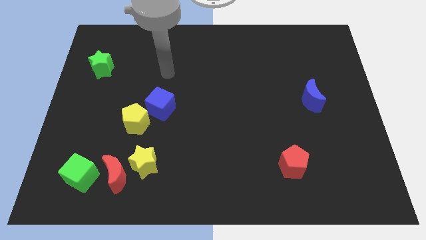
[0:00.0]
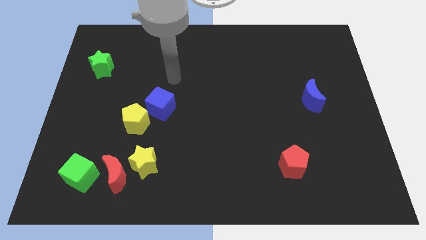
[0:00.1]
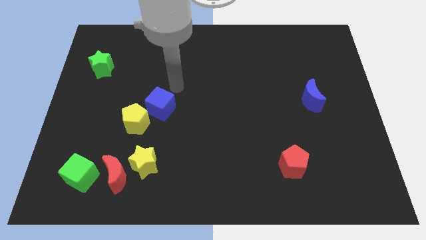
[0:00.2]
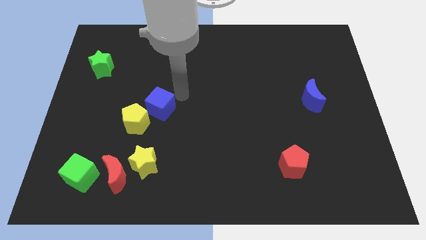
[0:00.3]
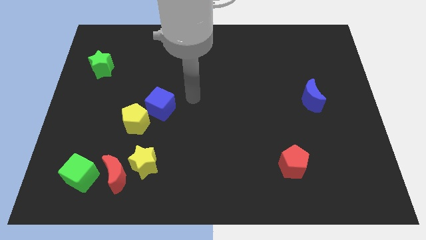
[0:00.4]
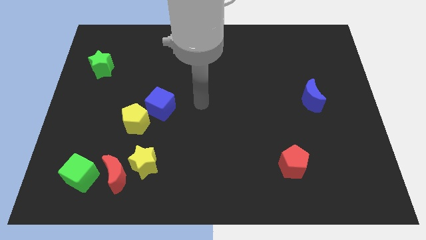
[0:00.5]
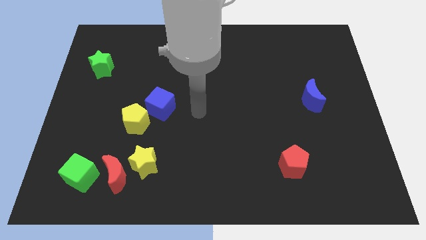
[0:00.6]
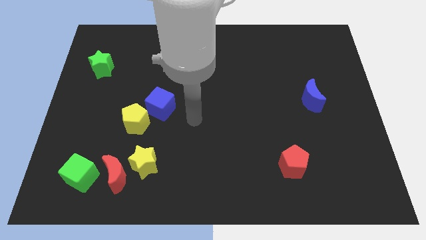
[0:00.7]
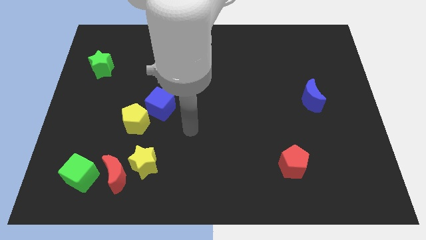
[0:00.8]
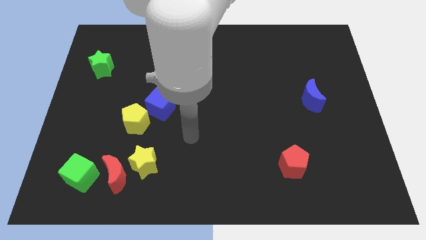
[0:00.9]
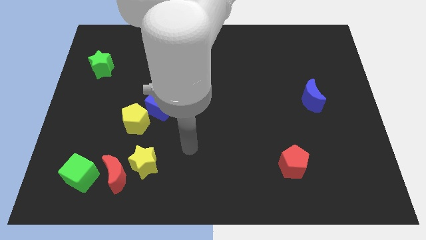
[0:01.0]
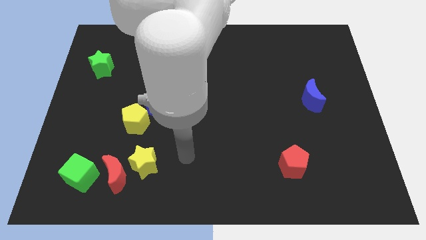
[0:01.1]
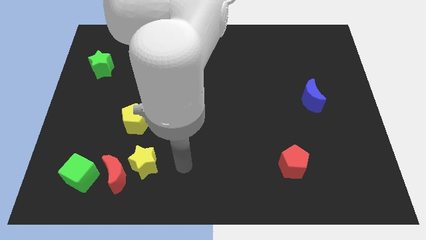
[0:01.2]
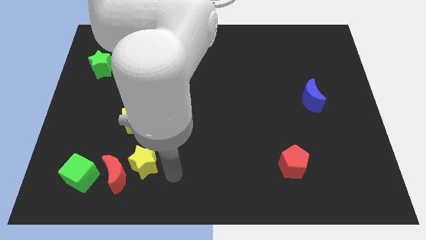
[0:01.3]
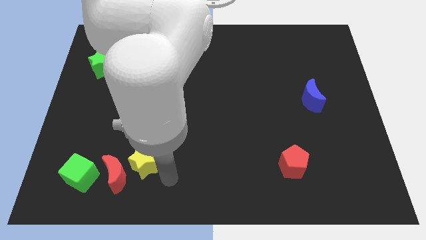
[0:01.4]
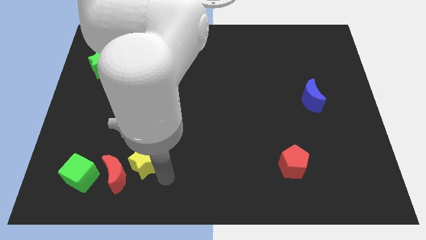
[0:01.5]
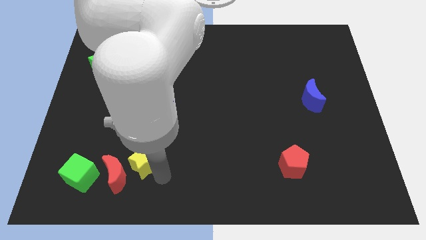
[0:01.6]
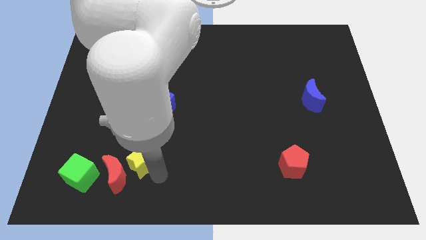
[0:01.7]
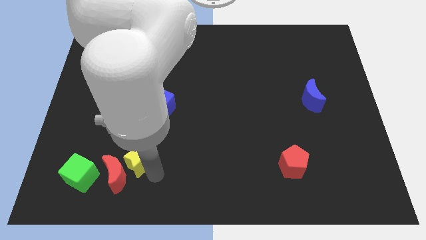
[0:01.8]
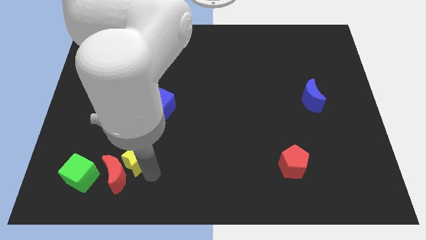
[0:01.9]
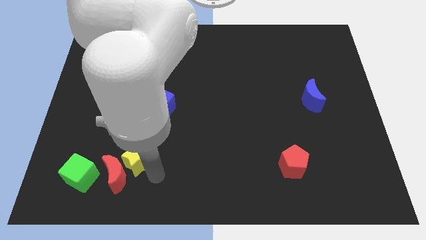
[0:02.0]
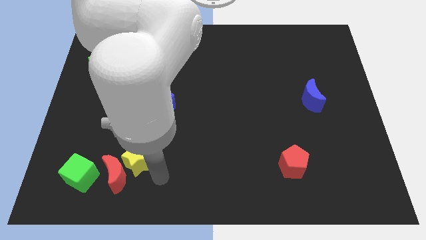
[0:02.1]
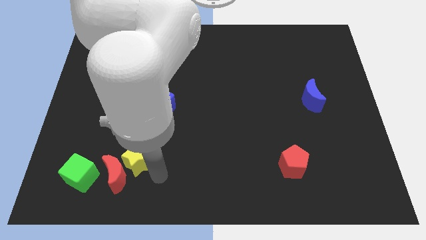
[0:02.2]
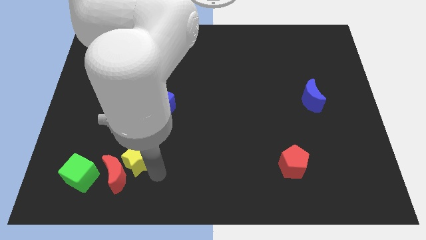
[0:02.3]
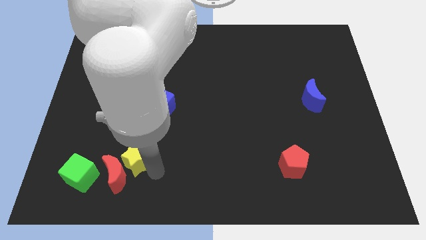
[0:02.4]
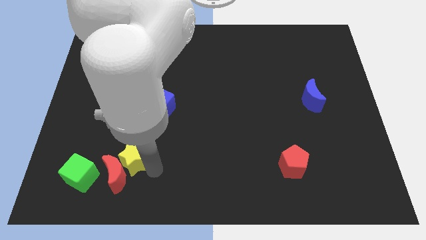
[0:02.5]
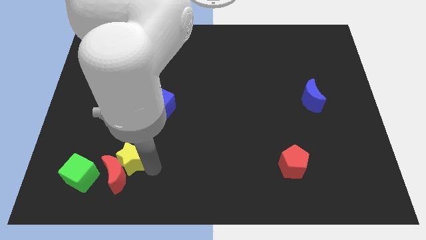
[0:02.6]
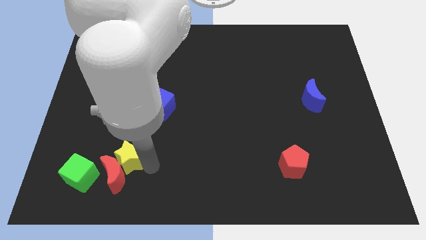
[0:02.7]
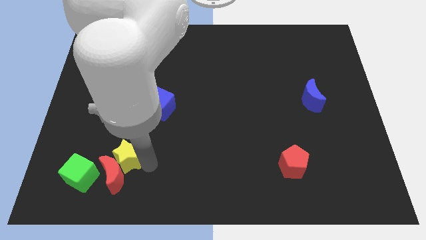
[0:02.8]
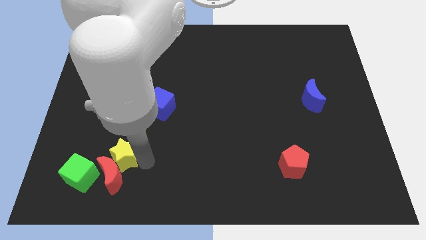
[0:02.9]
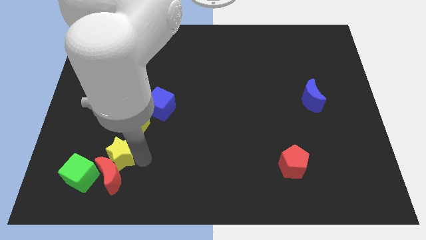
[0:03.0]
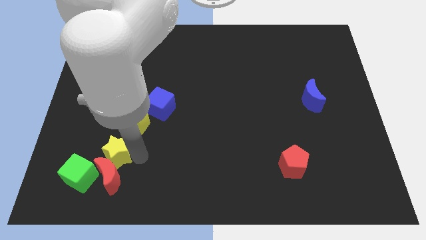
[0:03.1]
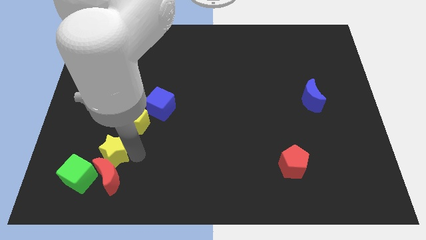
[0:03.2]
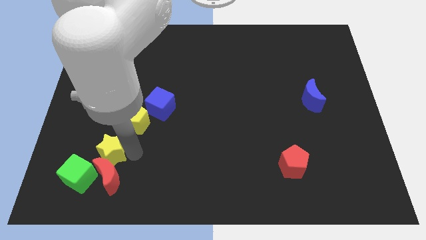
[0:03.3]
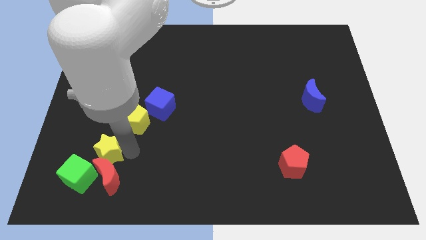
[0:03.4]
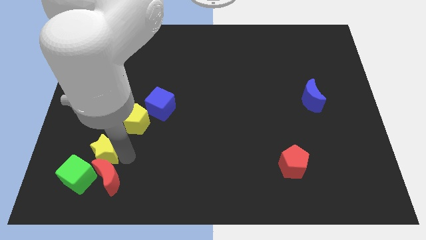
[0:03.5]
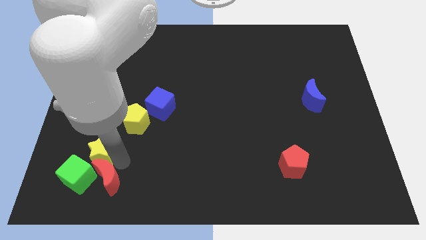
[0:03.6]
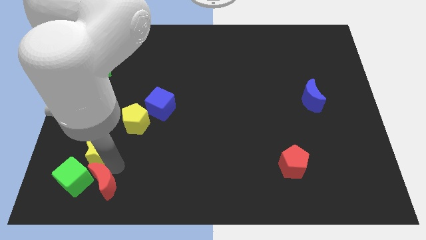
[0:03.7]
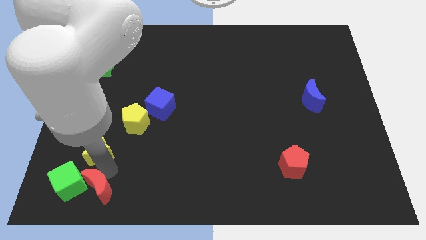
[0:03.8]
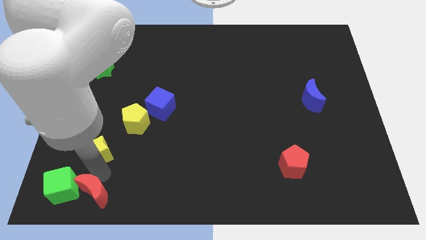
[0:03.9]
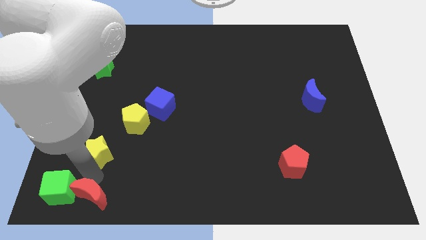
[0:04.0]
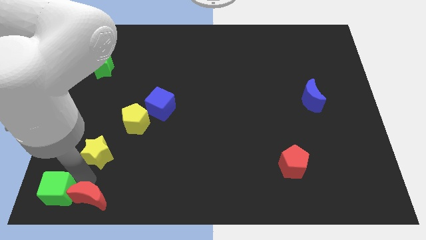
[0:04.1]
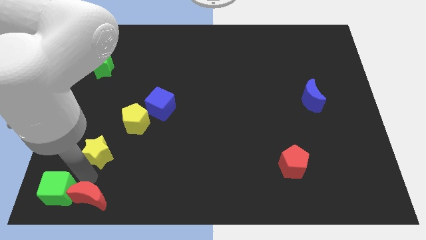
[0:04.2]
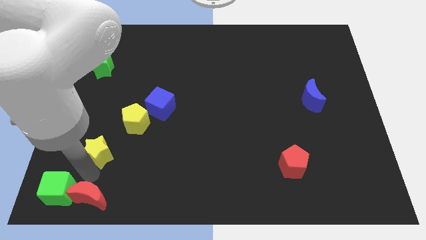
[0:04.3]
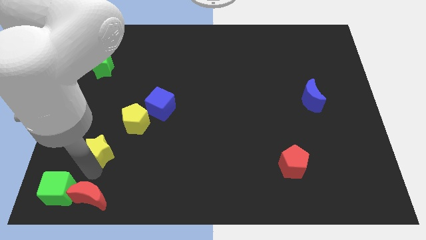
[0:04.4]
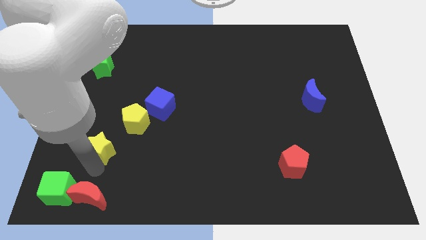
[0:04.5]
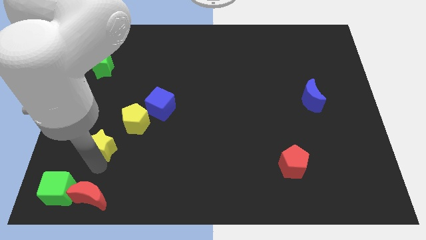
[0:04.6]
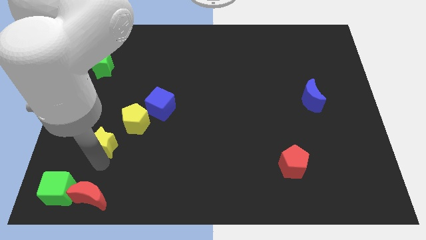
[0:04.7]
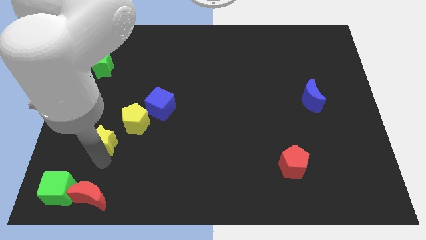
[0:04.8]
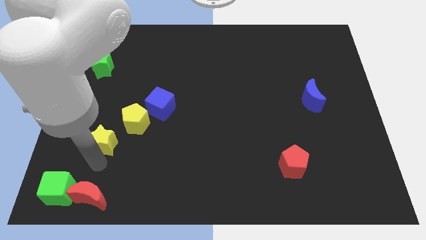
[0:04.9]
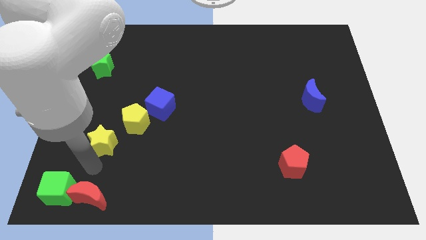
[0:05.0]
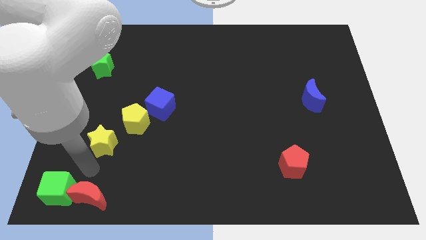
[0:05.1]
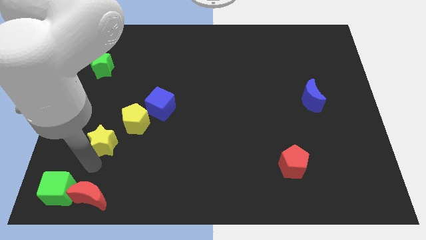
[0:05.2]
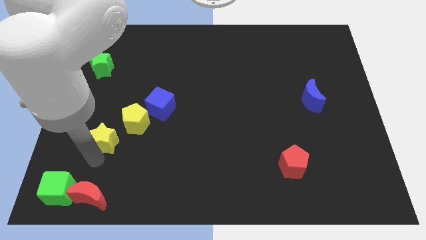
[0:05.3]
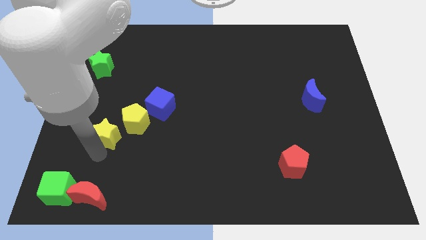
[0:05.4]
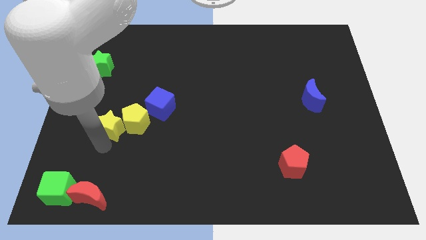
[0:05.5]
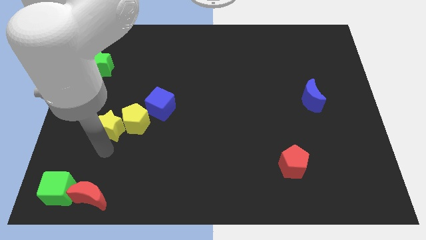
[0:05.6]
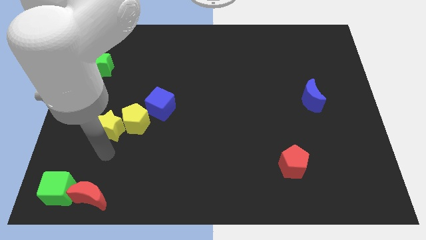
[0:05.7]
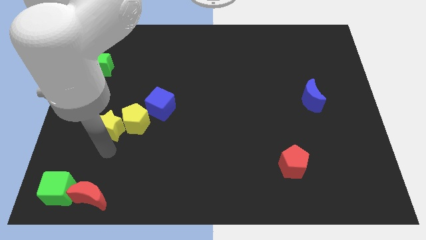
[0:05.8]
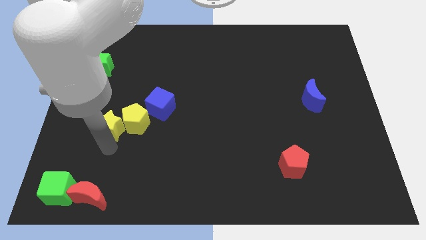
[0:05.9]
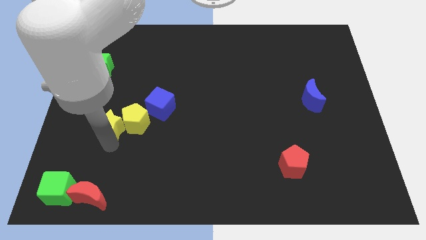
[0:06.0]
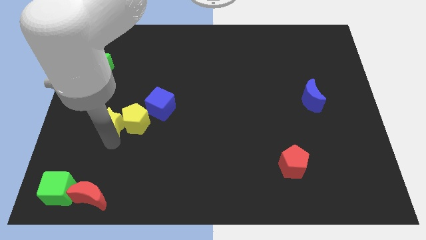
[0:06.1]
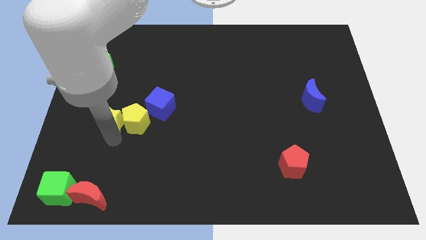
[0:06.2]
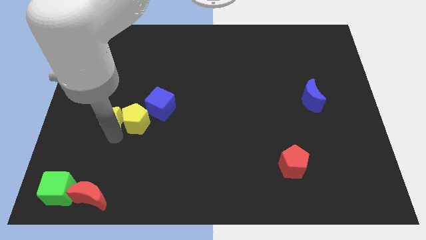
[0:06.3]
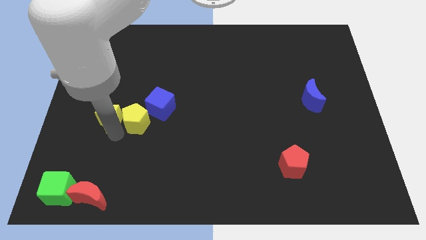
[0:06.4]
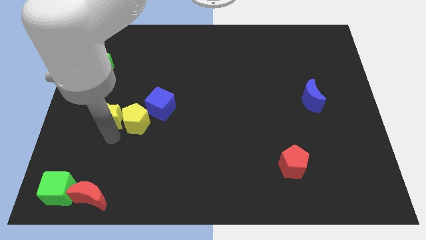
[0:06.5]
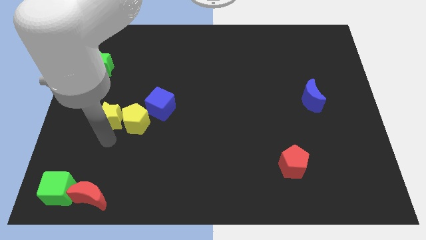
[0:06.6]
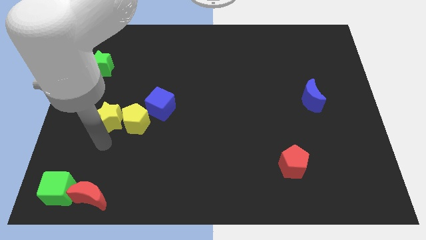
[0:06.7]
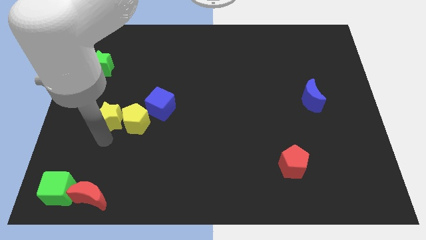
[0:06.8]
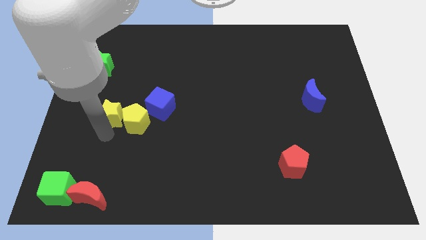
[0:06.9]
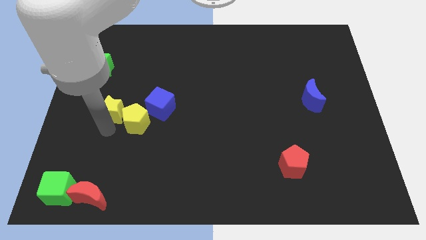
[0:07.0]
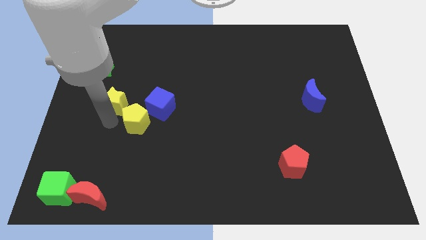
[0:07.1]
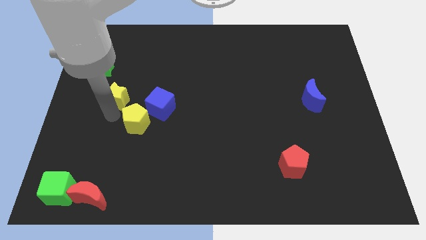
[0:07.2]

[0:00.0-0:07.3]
put the yellow star to the bottom right of the green star
